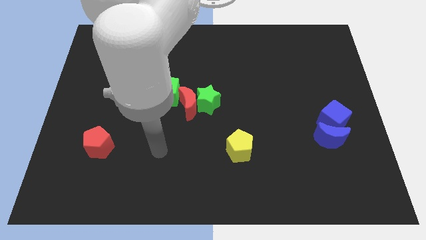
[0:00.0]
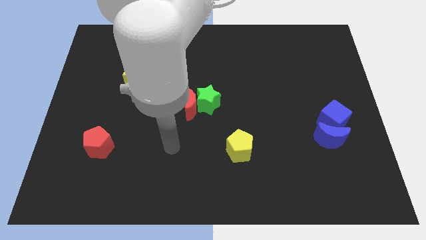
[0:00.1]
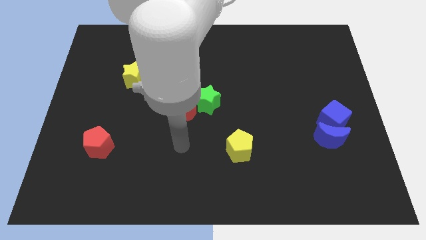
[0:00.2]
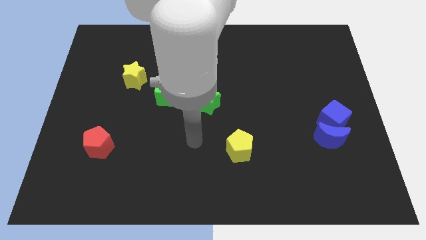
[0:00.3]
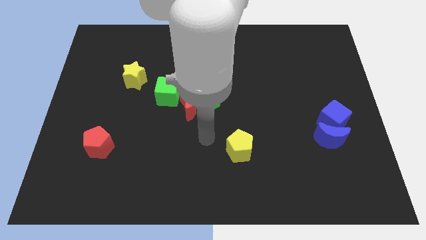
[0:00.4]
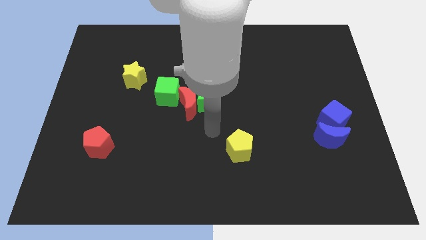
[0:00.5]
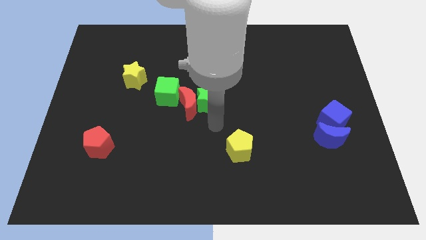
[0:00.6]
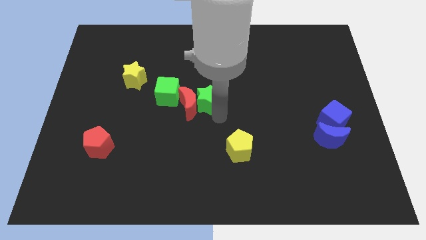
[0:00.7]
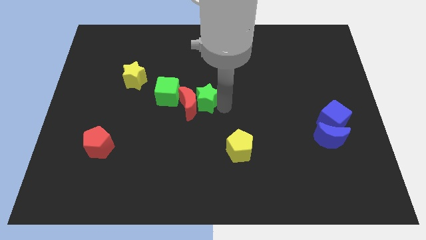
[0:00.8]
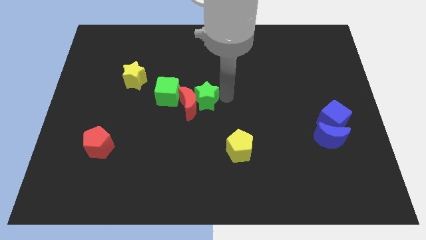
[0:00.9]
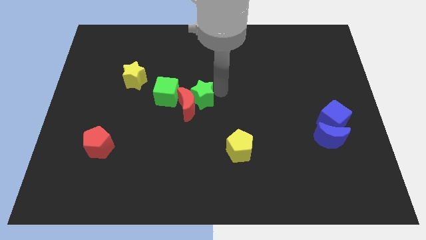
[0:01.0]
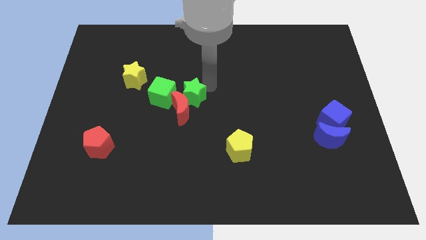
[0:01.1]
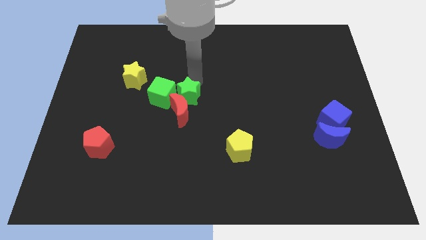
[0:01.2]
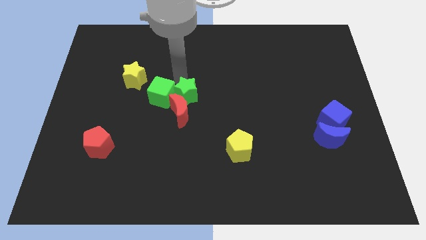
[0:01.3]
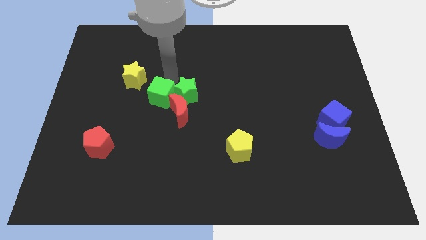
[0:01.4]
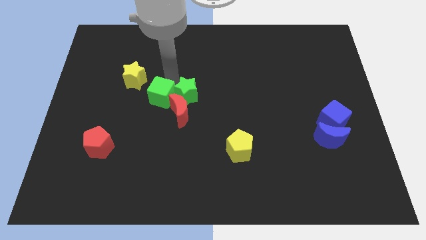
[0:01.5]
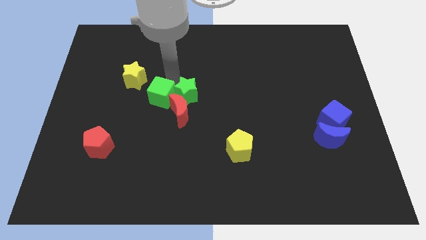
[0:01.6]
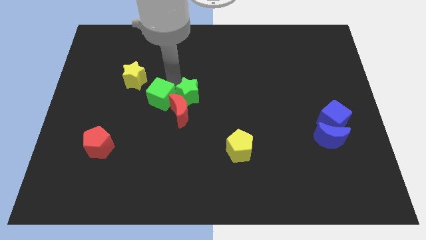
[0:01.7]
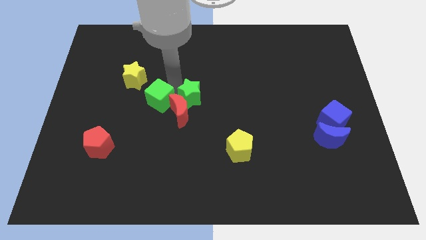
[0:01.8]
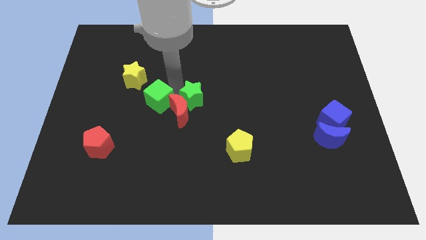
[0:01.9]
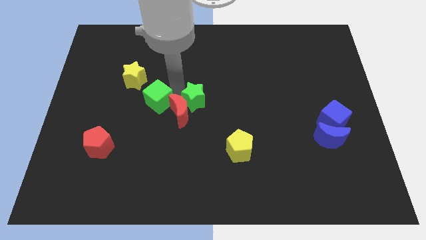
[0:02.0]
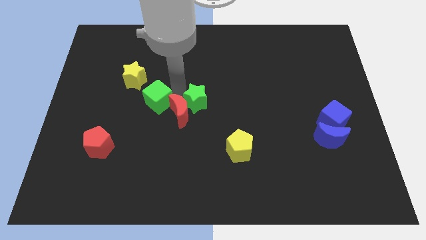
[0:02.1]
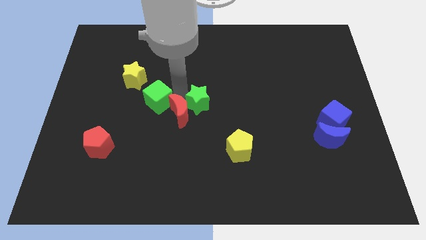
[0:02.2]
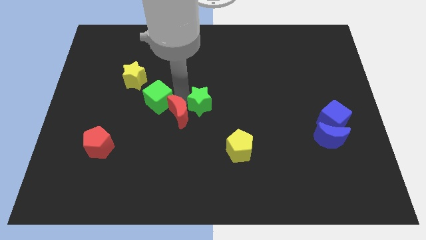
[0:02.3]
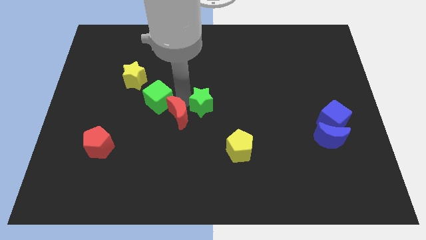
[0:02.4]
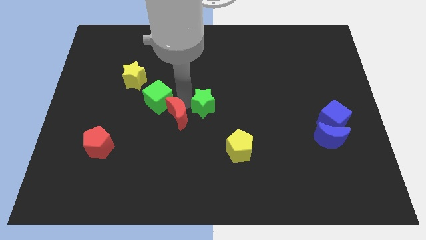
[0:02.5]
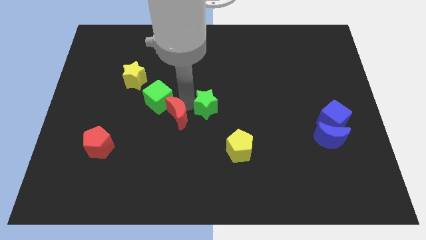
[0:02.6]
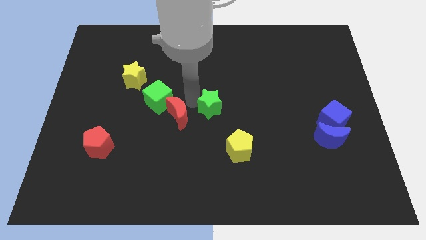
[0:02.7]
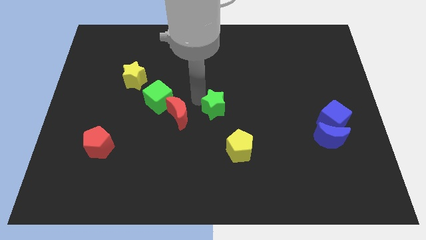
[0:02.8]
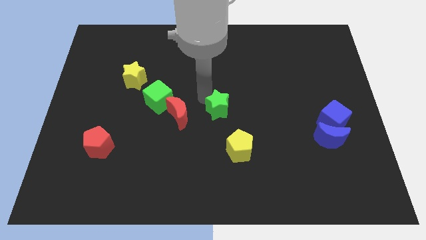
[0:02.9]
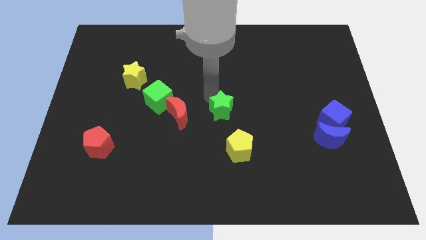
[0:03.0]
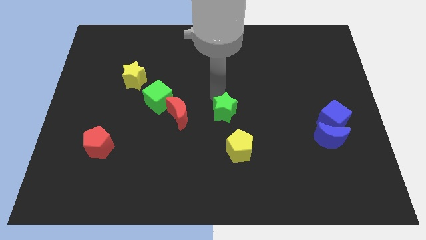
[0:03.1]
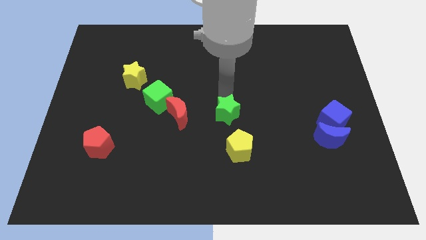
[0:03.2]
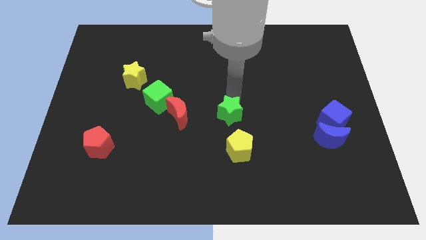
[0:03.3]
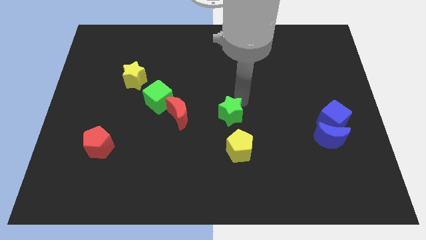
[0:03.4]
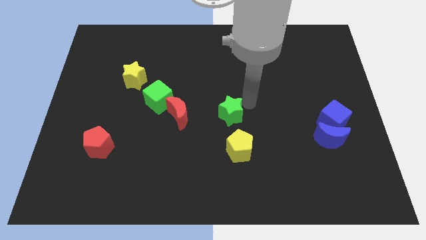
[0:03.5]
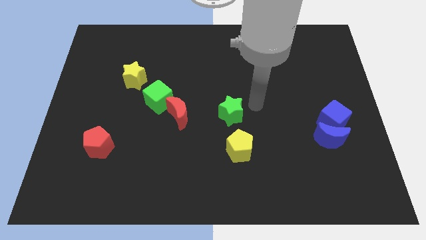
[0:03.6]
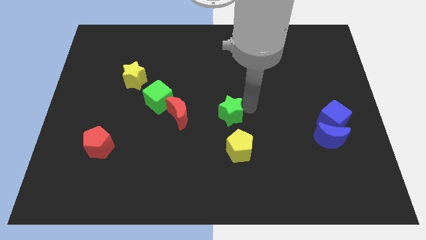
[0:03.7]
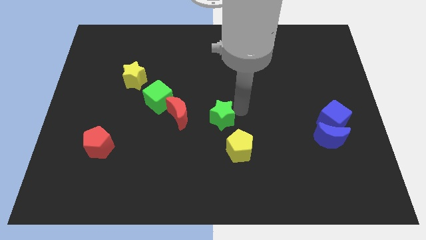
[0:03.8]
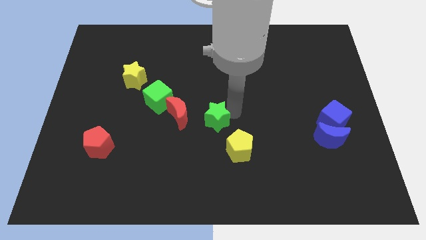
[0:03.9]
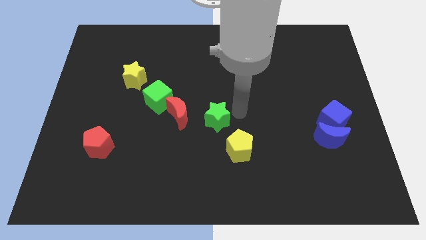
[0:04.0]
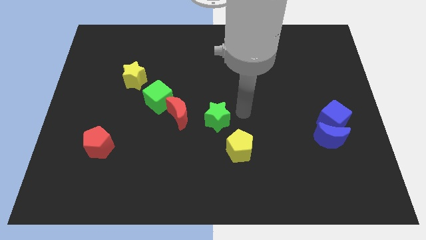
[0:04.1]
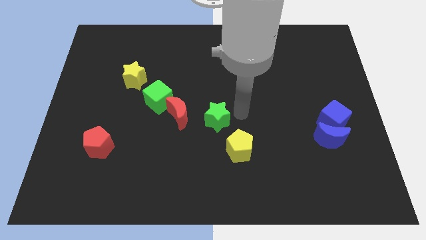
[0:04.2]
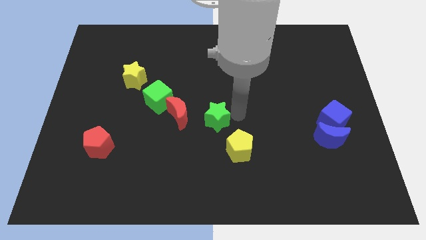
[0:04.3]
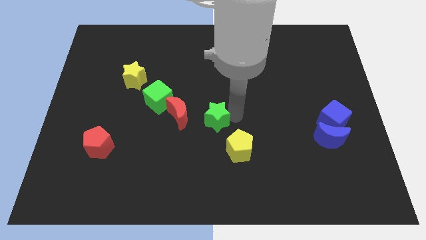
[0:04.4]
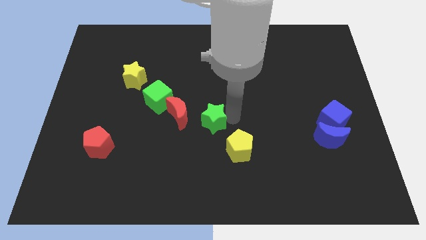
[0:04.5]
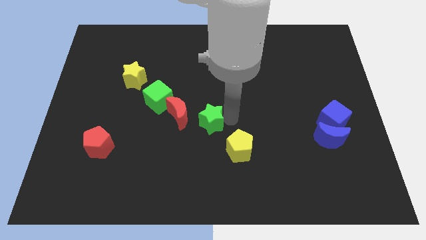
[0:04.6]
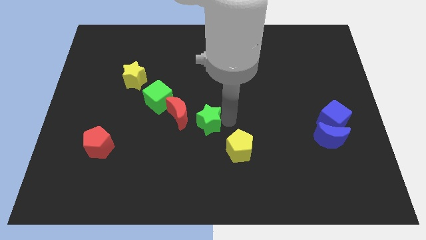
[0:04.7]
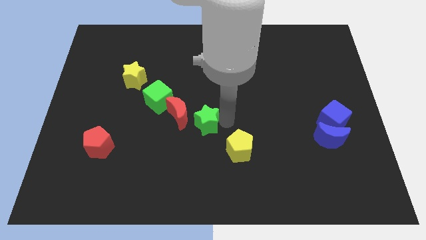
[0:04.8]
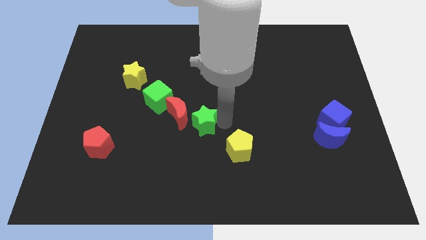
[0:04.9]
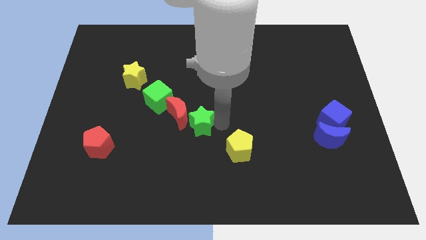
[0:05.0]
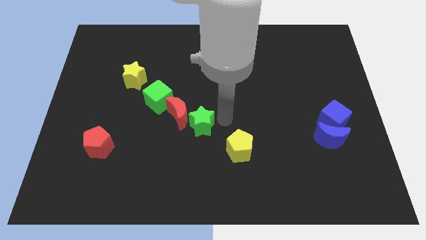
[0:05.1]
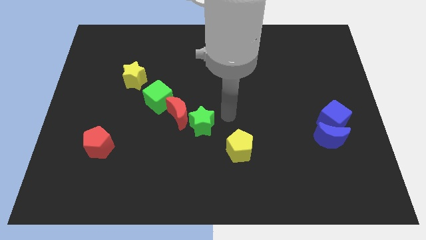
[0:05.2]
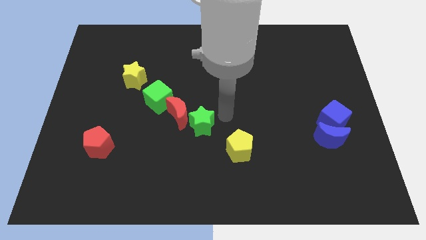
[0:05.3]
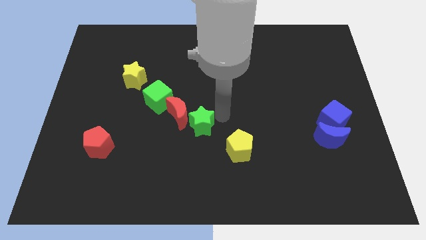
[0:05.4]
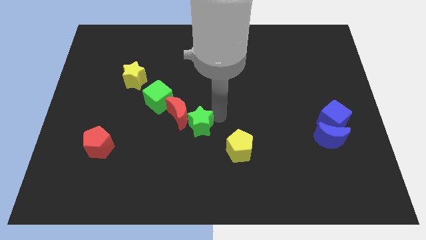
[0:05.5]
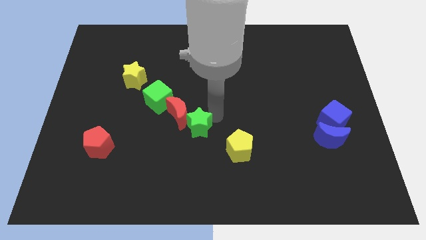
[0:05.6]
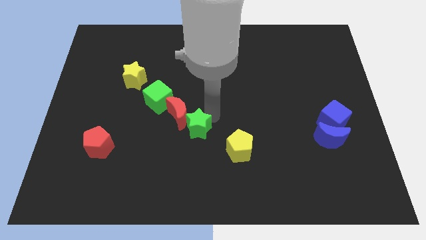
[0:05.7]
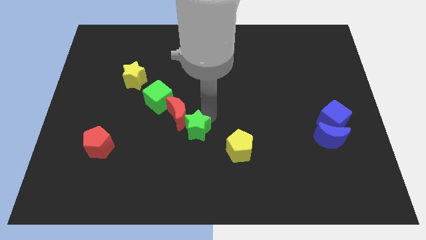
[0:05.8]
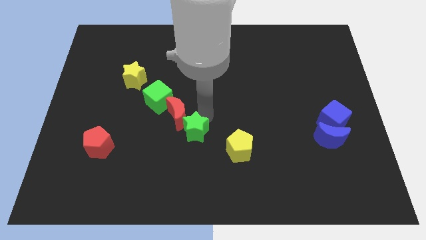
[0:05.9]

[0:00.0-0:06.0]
move the green star down and to the left diagonally somewhat

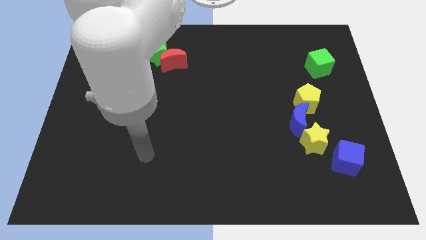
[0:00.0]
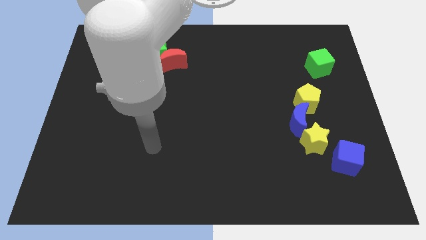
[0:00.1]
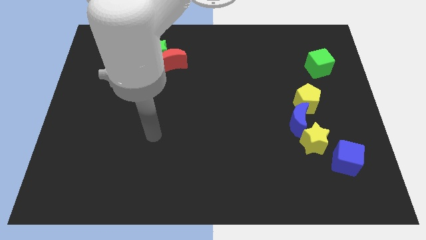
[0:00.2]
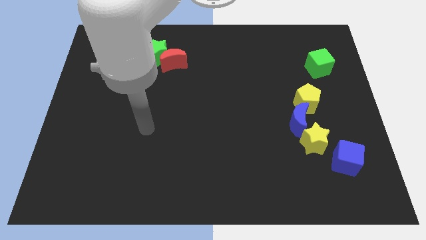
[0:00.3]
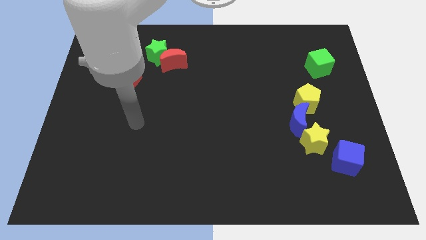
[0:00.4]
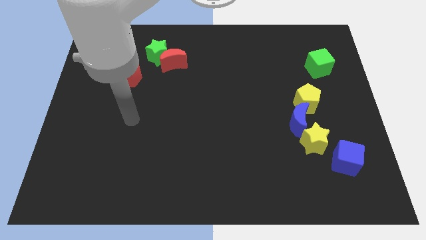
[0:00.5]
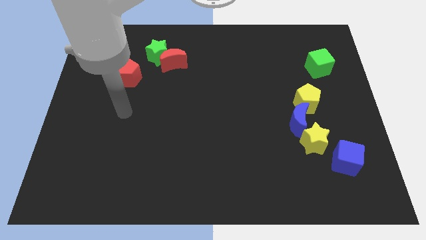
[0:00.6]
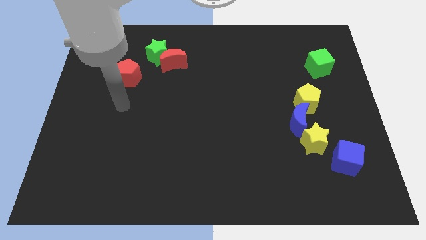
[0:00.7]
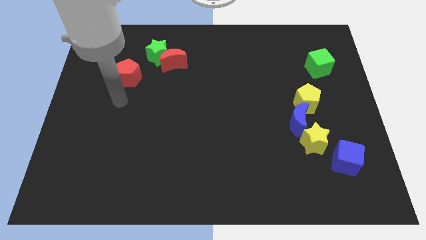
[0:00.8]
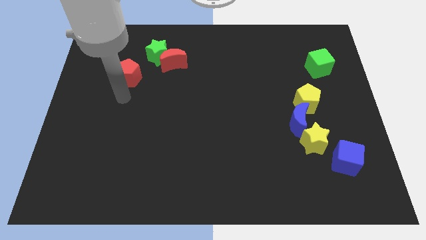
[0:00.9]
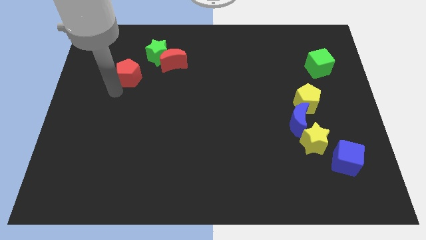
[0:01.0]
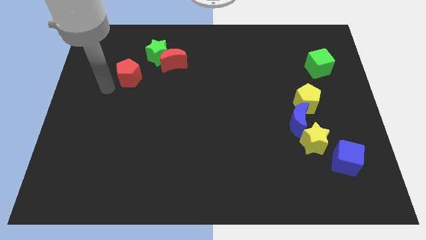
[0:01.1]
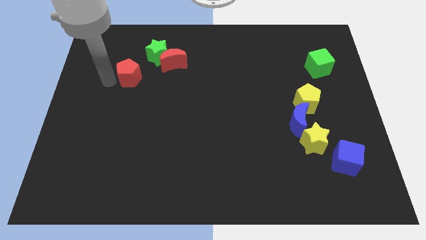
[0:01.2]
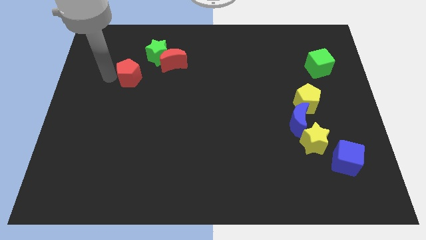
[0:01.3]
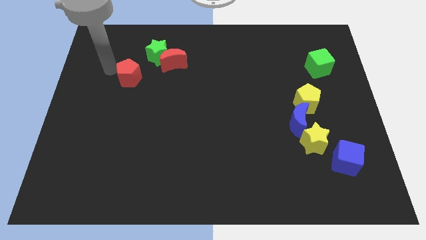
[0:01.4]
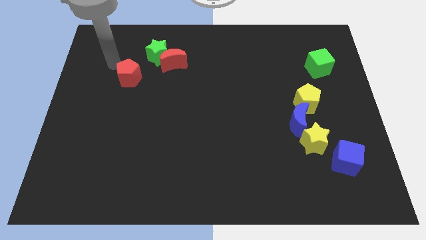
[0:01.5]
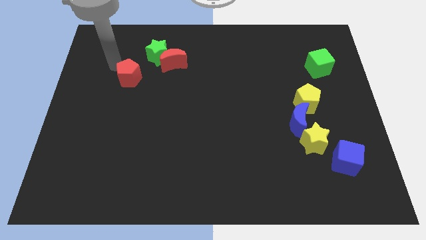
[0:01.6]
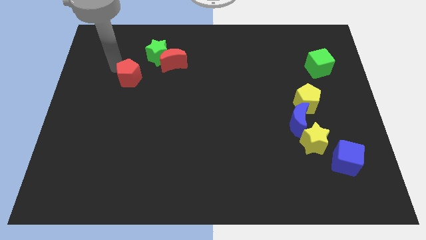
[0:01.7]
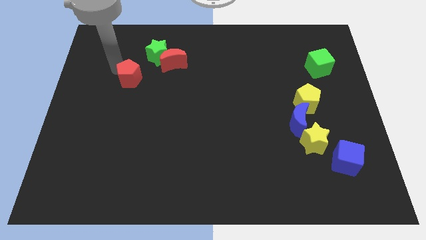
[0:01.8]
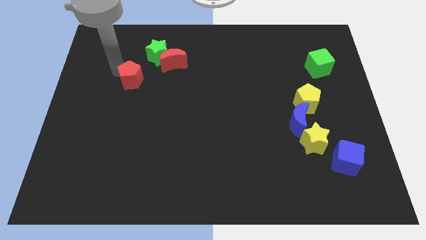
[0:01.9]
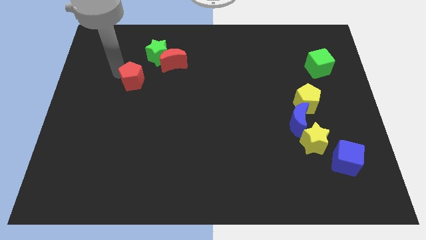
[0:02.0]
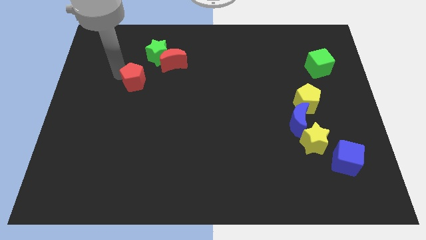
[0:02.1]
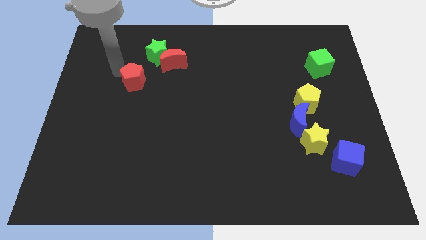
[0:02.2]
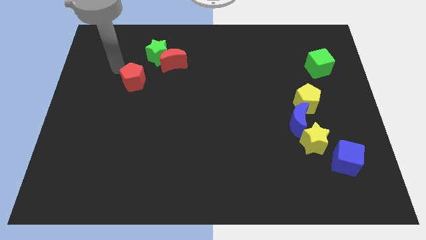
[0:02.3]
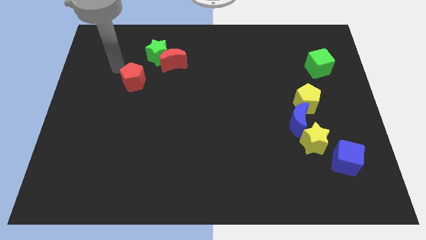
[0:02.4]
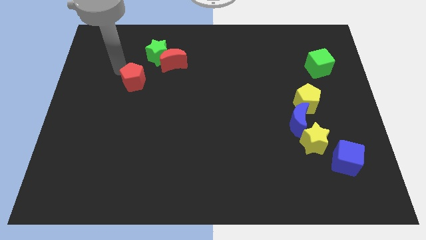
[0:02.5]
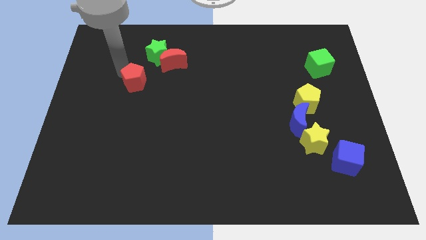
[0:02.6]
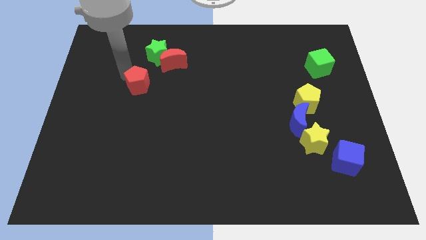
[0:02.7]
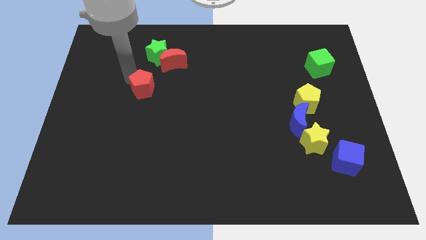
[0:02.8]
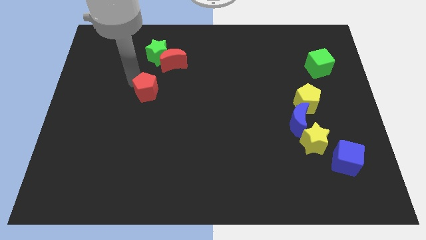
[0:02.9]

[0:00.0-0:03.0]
slightly push the red pentagon diagonally down and right
